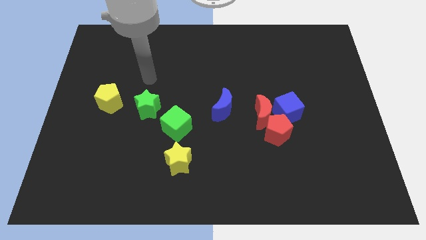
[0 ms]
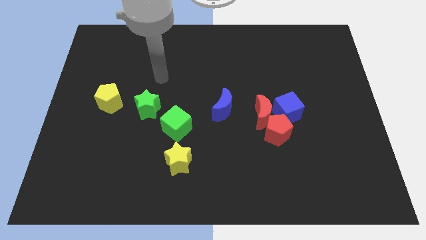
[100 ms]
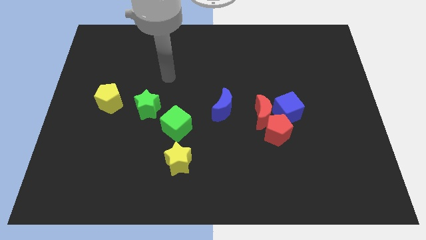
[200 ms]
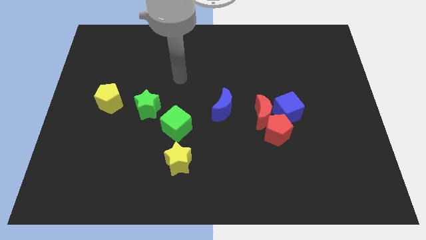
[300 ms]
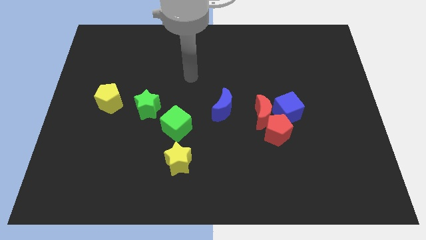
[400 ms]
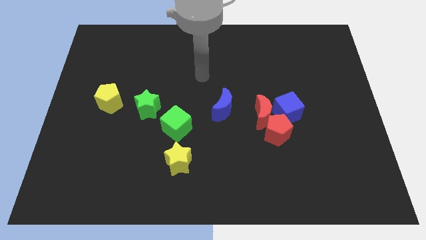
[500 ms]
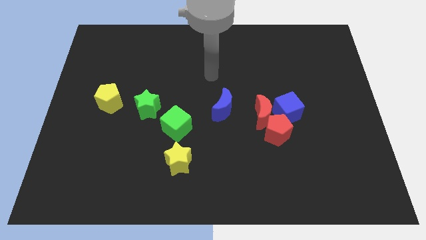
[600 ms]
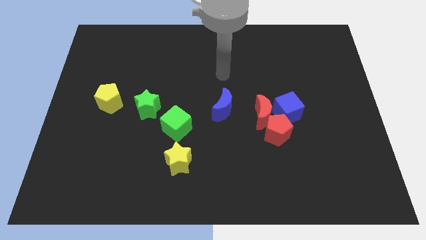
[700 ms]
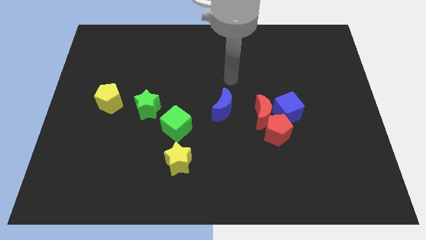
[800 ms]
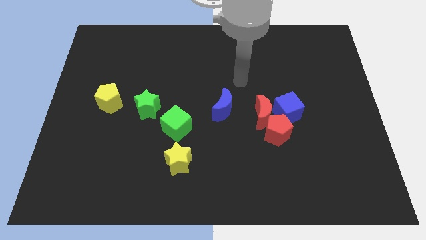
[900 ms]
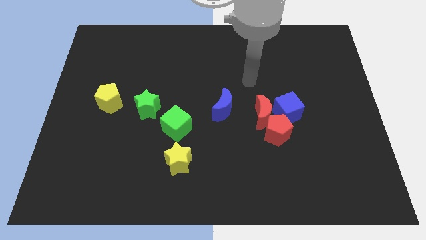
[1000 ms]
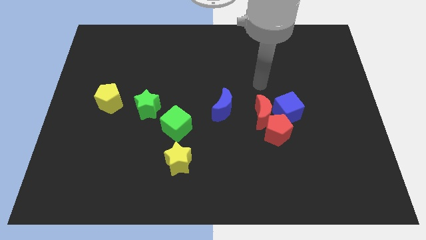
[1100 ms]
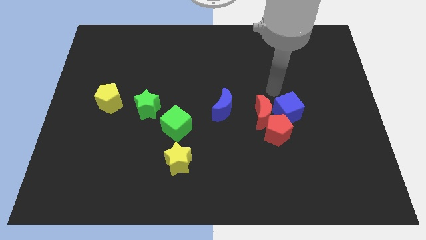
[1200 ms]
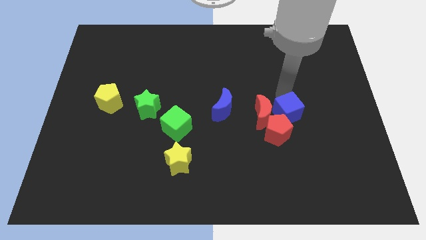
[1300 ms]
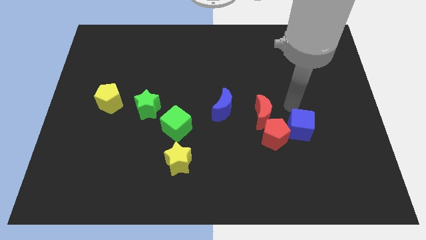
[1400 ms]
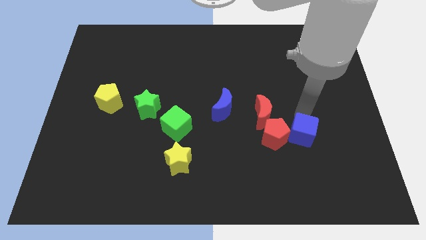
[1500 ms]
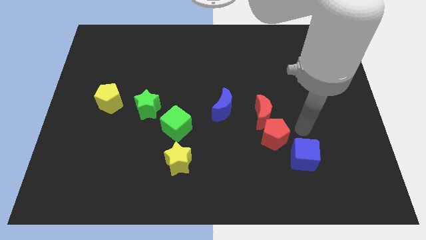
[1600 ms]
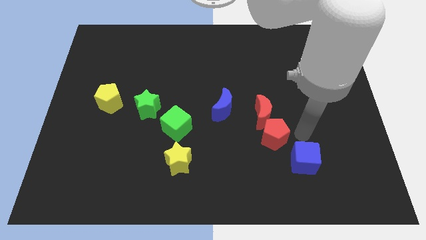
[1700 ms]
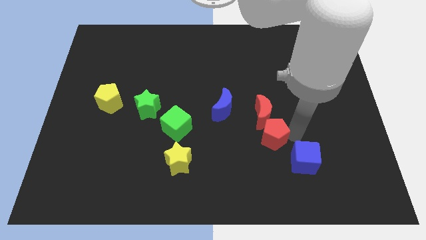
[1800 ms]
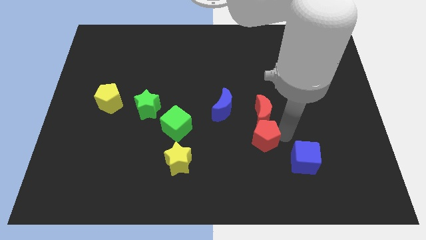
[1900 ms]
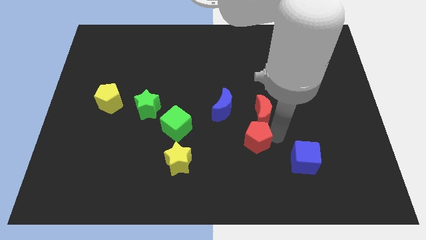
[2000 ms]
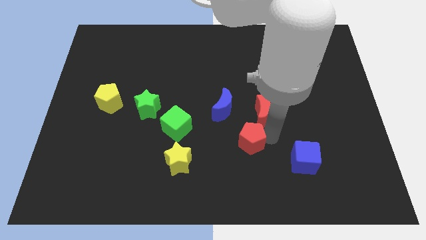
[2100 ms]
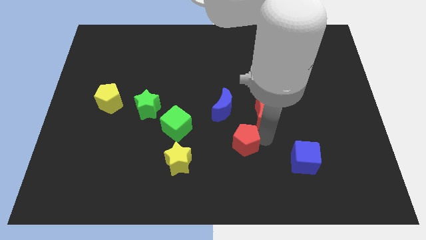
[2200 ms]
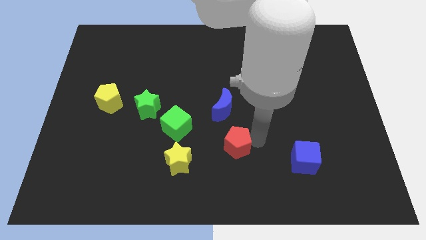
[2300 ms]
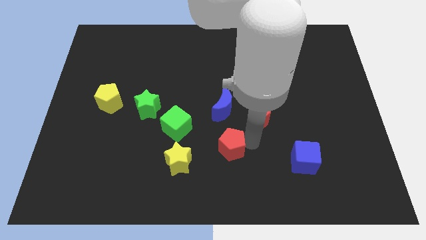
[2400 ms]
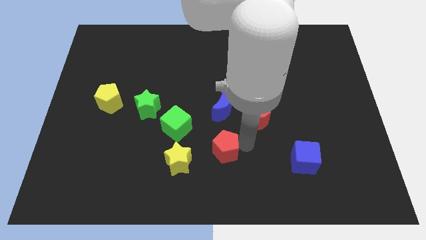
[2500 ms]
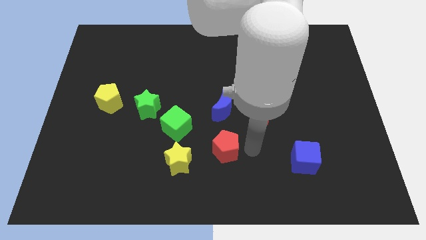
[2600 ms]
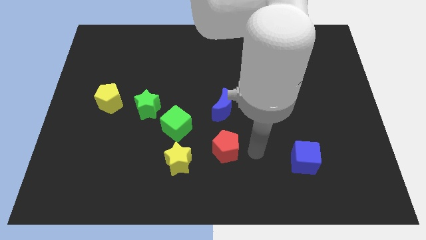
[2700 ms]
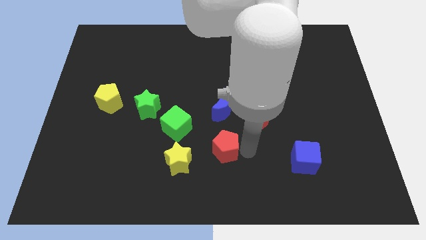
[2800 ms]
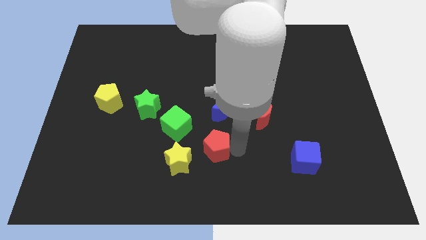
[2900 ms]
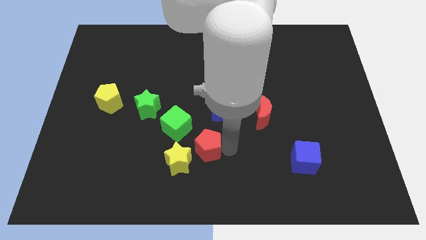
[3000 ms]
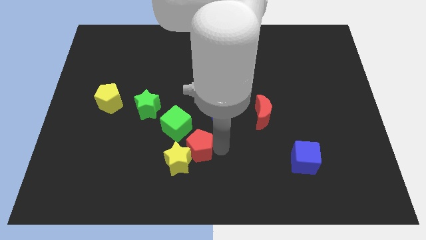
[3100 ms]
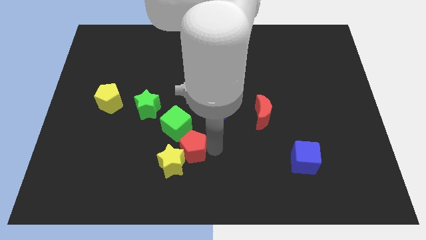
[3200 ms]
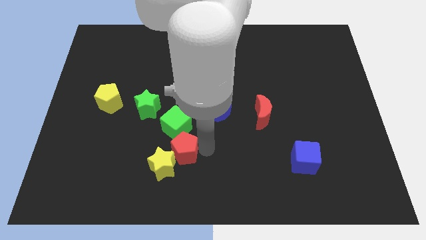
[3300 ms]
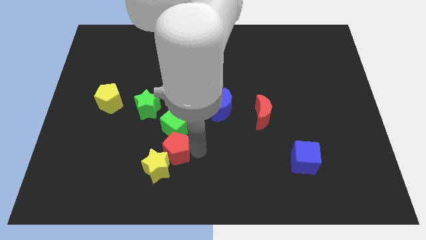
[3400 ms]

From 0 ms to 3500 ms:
move the red pentagon to the left

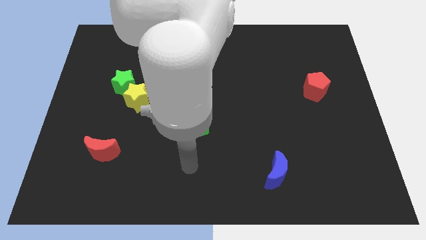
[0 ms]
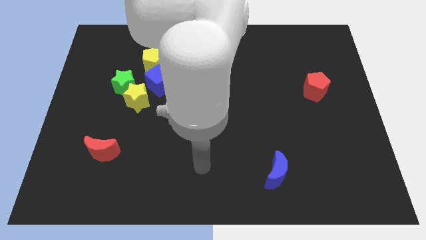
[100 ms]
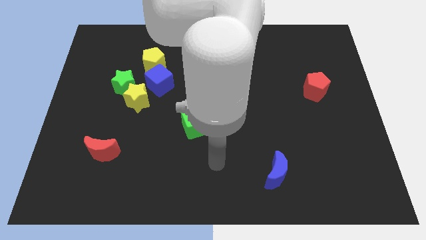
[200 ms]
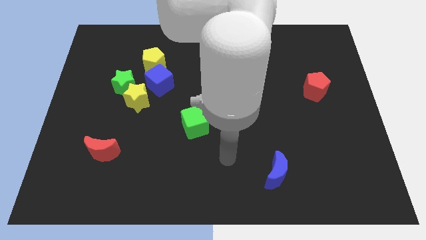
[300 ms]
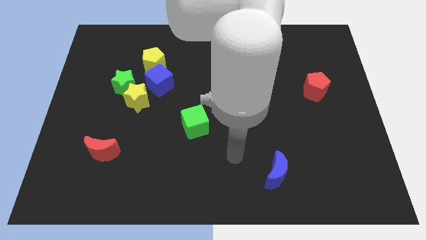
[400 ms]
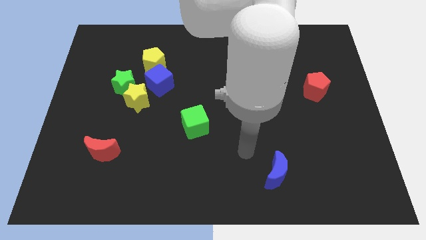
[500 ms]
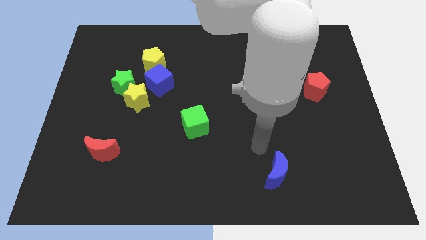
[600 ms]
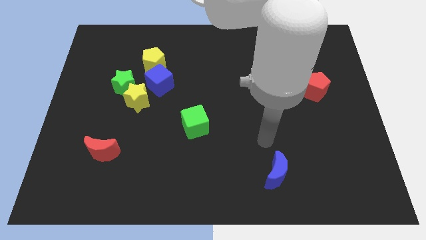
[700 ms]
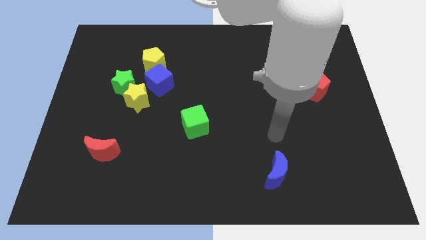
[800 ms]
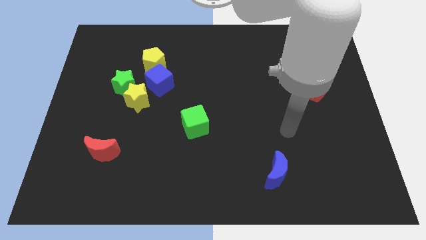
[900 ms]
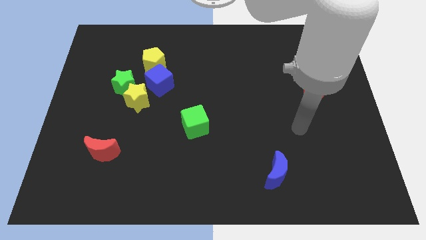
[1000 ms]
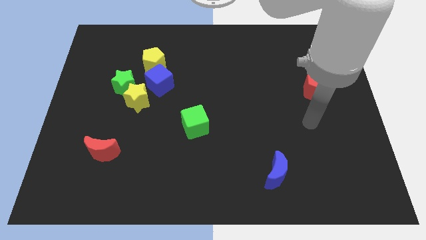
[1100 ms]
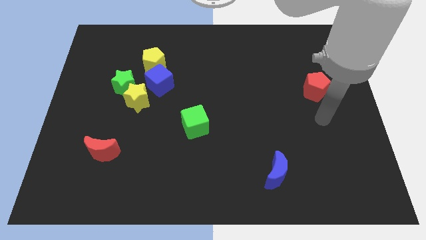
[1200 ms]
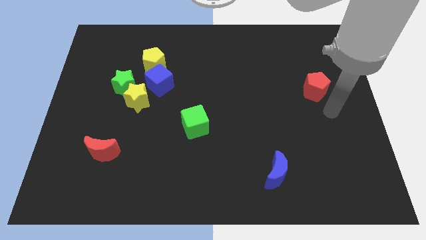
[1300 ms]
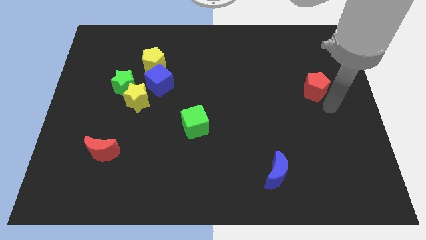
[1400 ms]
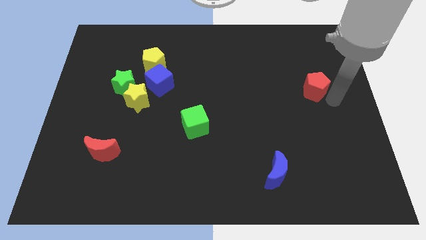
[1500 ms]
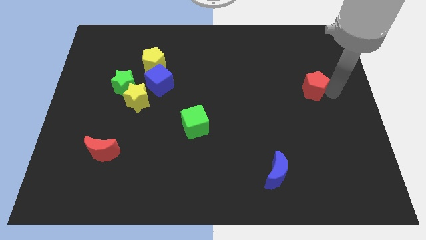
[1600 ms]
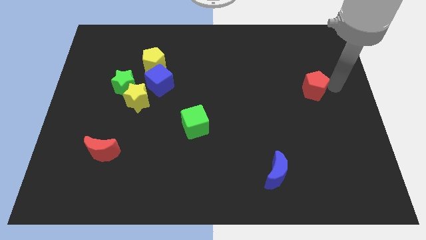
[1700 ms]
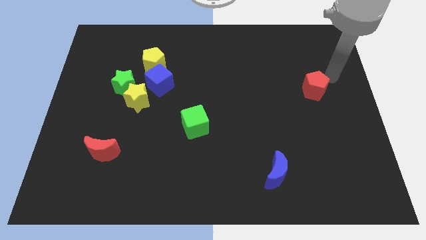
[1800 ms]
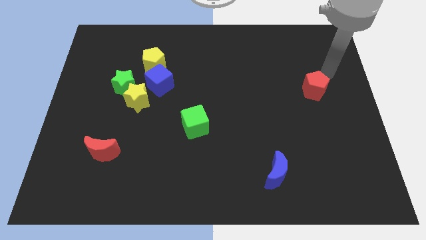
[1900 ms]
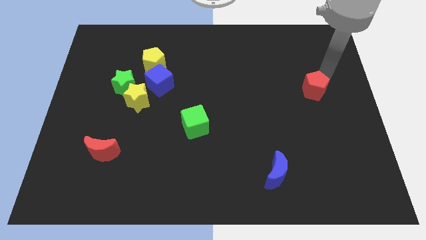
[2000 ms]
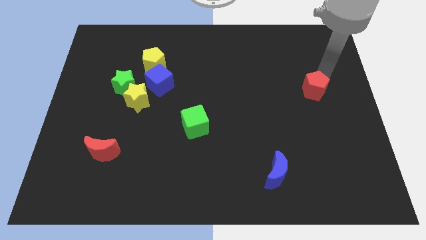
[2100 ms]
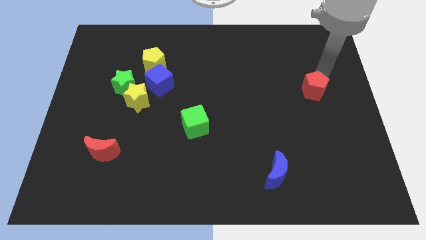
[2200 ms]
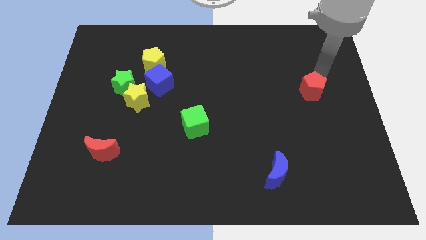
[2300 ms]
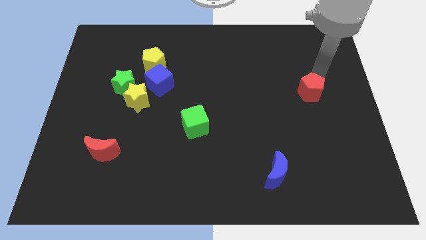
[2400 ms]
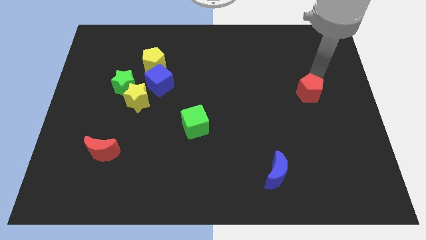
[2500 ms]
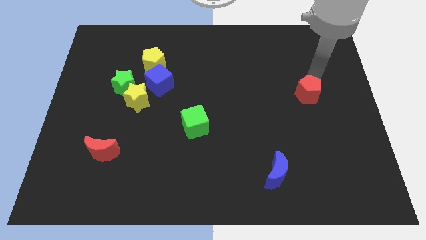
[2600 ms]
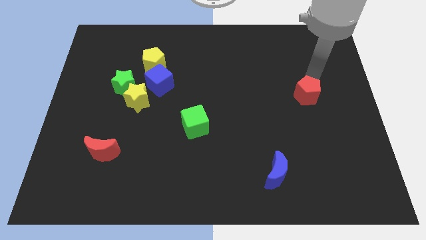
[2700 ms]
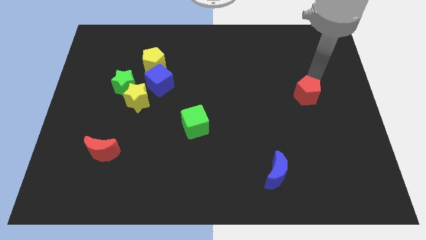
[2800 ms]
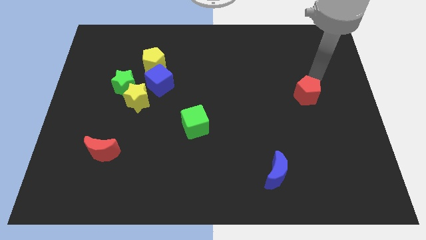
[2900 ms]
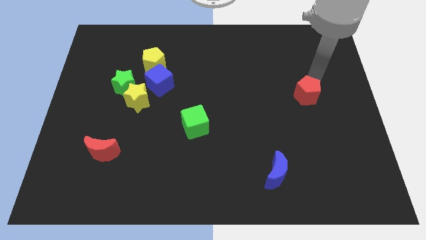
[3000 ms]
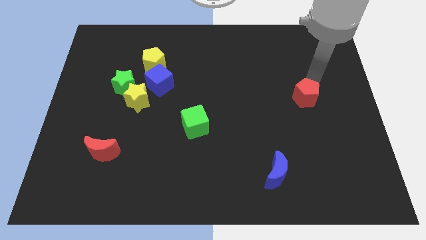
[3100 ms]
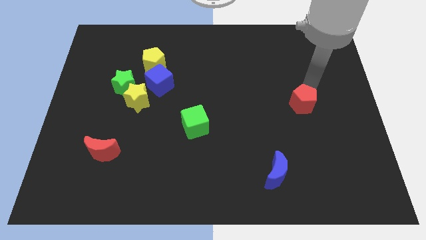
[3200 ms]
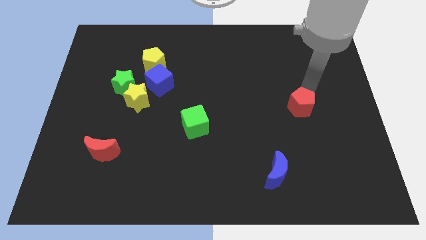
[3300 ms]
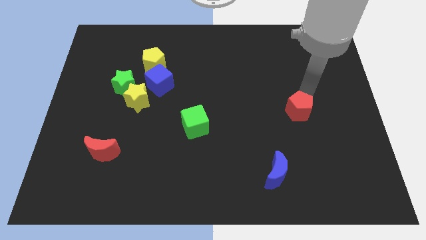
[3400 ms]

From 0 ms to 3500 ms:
slightly slide the red pentagon downwards and to the left diagonally

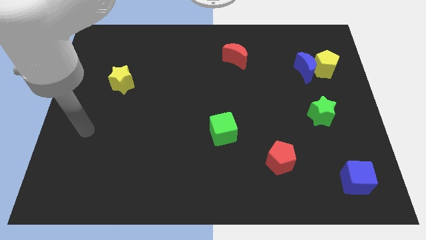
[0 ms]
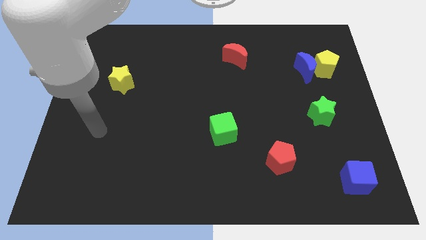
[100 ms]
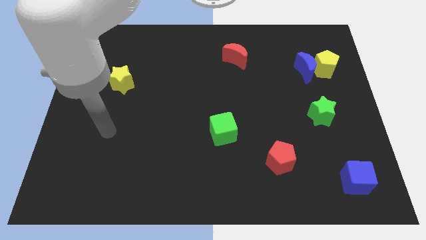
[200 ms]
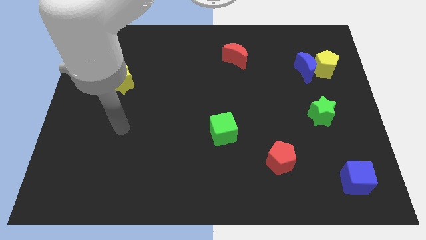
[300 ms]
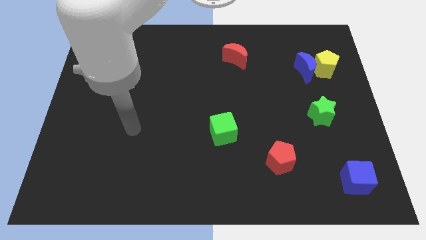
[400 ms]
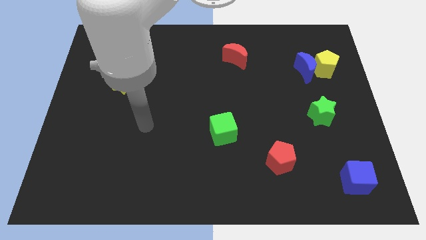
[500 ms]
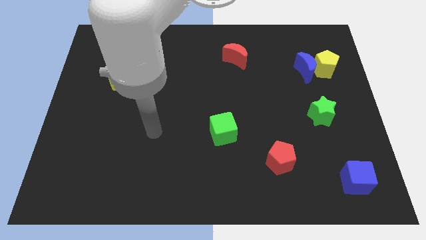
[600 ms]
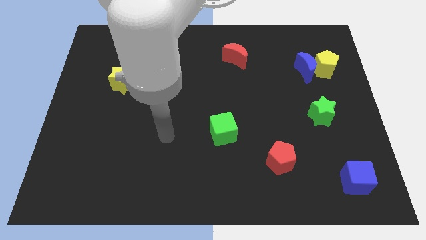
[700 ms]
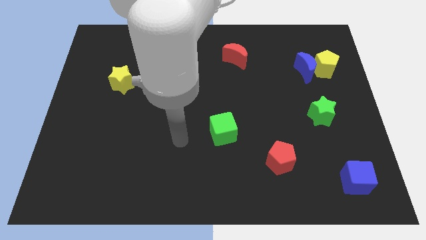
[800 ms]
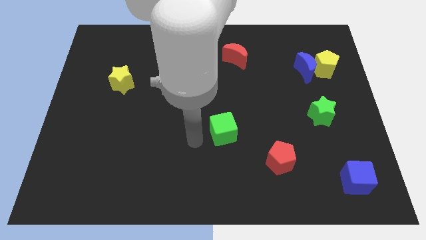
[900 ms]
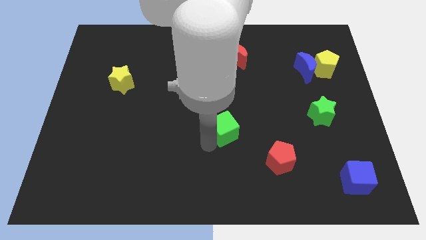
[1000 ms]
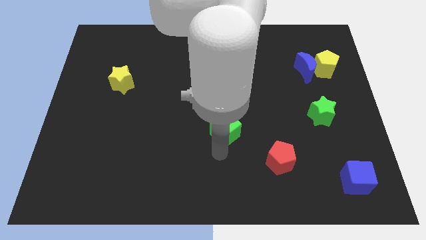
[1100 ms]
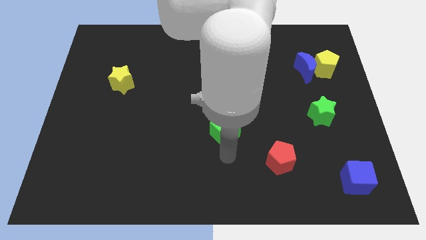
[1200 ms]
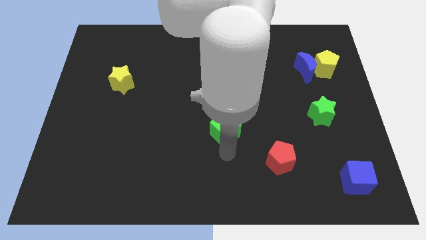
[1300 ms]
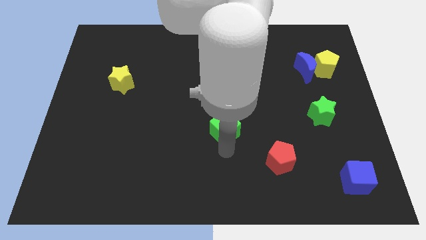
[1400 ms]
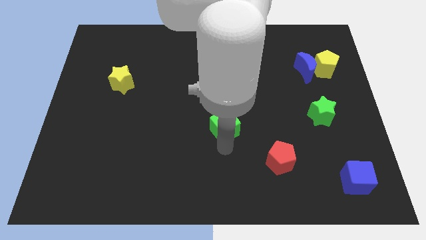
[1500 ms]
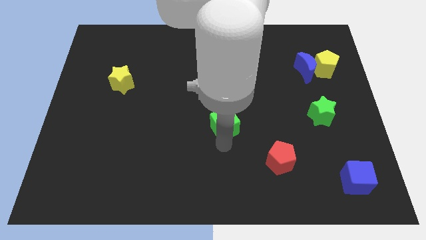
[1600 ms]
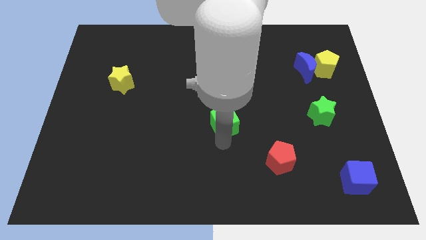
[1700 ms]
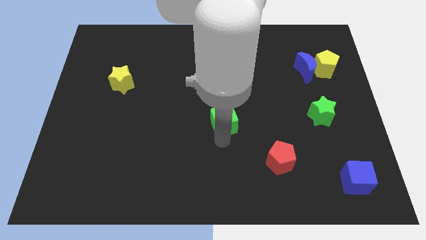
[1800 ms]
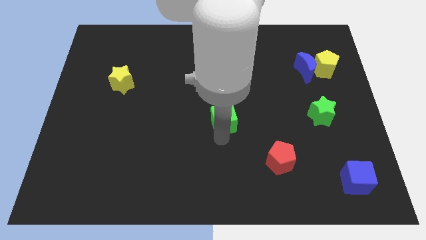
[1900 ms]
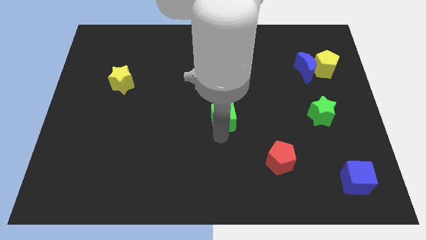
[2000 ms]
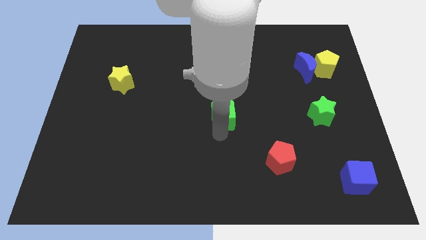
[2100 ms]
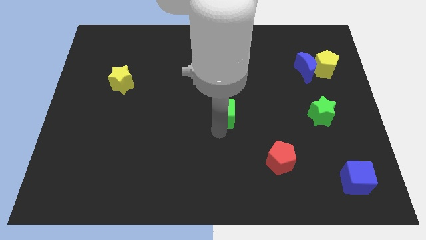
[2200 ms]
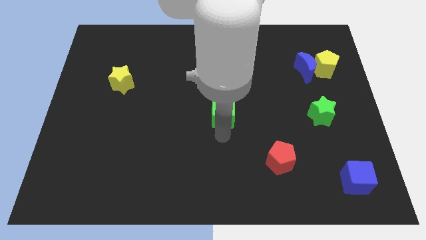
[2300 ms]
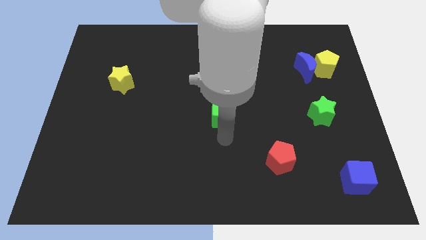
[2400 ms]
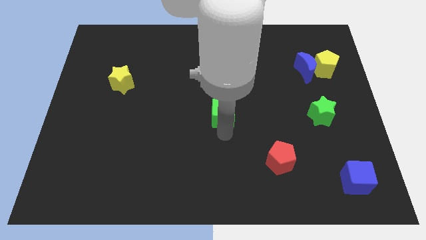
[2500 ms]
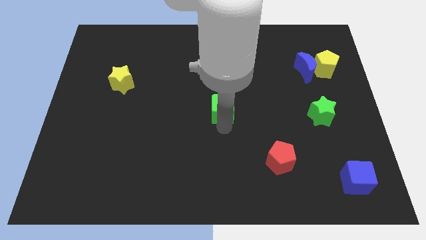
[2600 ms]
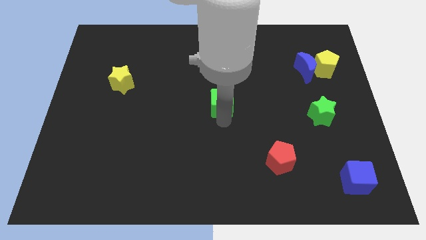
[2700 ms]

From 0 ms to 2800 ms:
slide the green cube up a little
